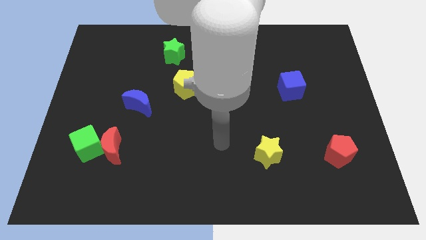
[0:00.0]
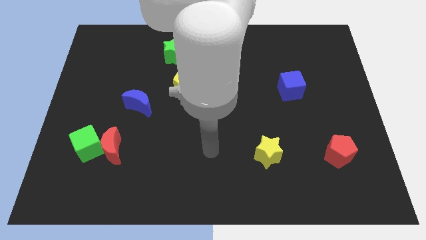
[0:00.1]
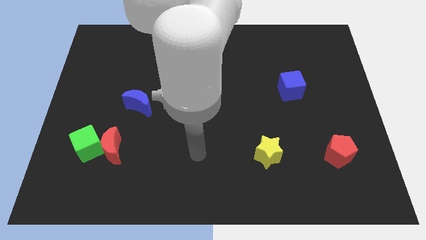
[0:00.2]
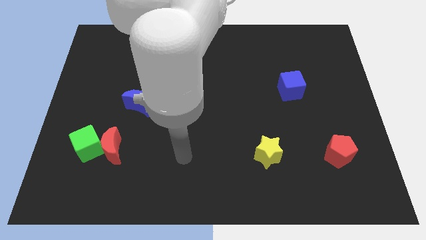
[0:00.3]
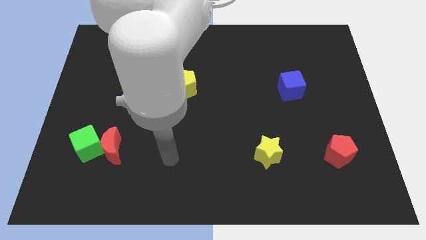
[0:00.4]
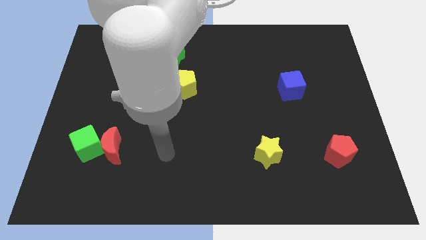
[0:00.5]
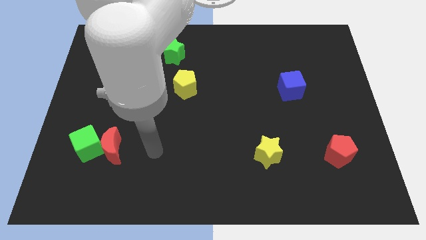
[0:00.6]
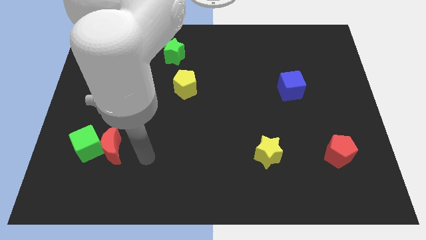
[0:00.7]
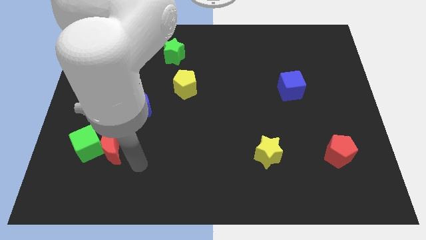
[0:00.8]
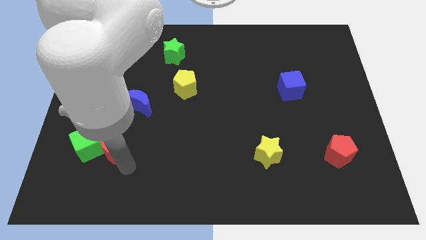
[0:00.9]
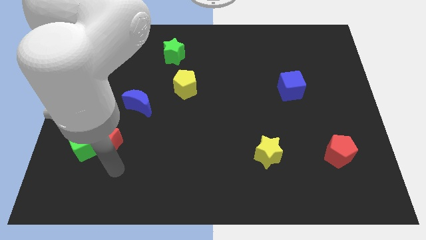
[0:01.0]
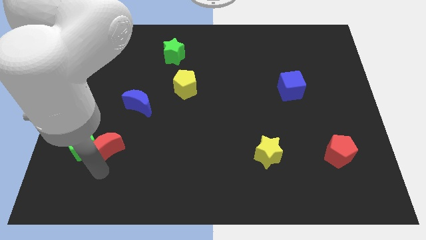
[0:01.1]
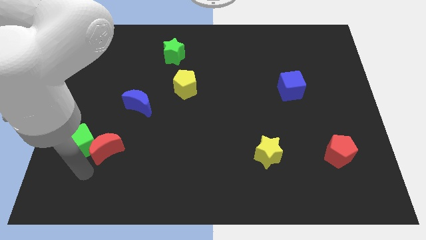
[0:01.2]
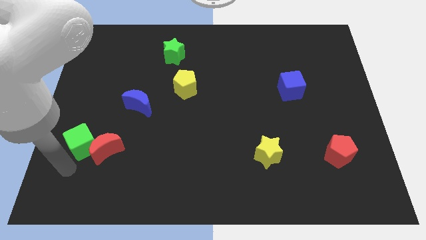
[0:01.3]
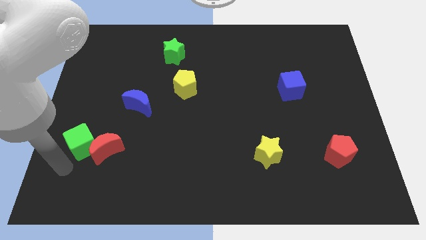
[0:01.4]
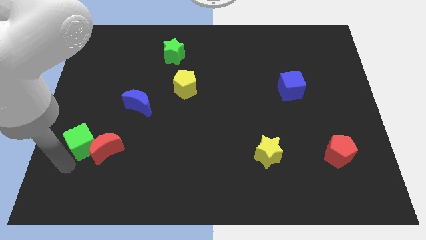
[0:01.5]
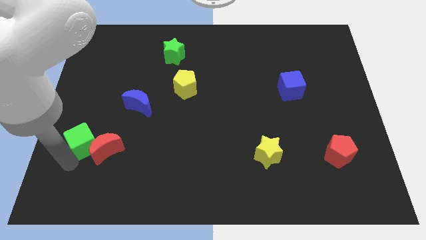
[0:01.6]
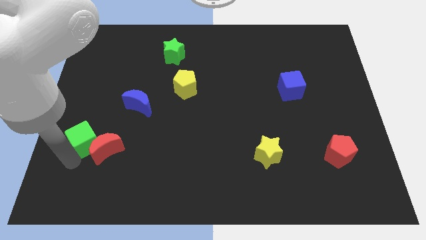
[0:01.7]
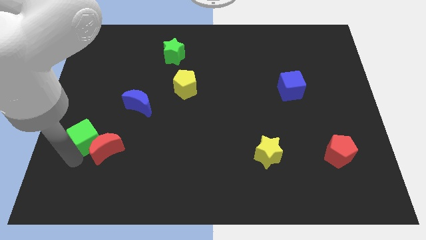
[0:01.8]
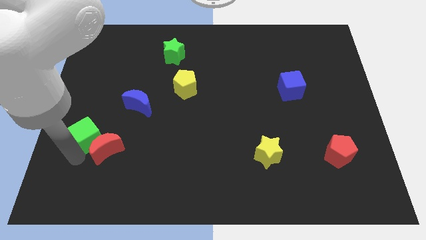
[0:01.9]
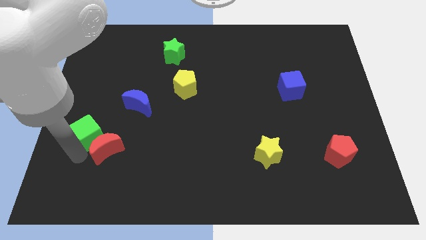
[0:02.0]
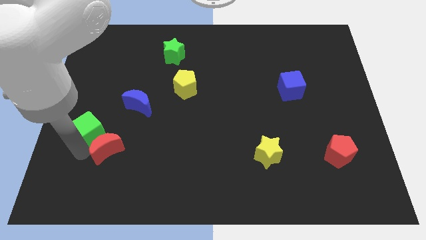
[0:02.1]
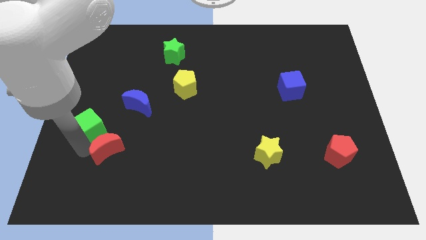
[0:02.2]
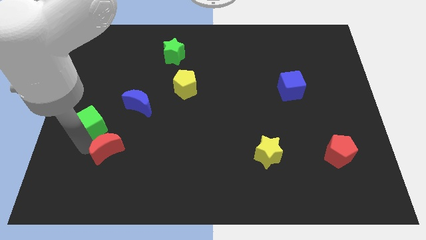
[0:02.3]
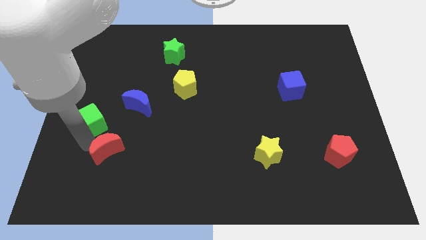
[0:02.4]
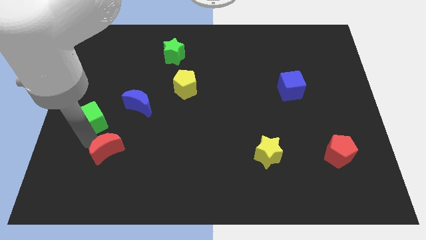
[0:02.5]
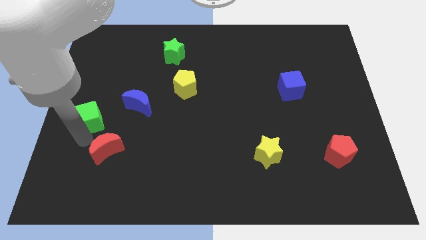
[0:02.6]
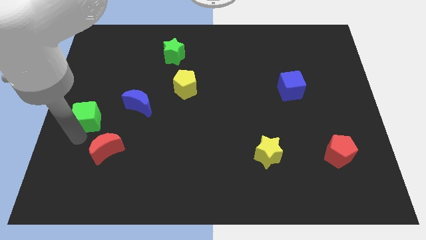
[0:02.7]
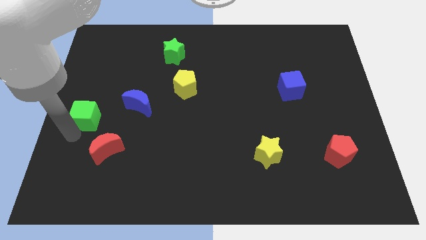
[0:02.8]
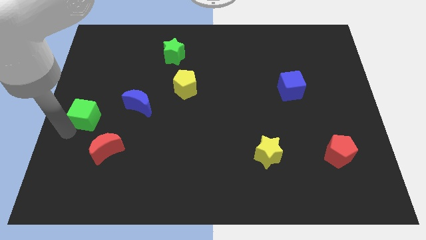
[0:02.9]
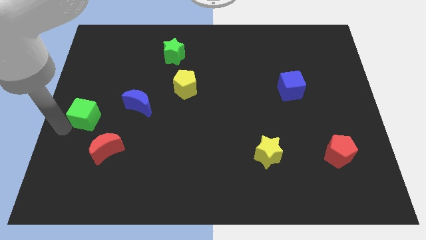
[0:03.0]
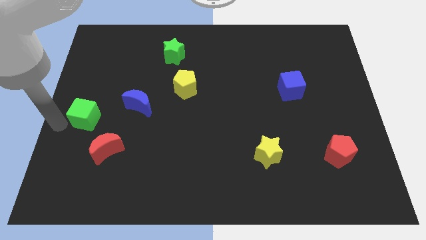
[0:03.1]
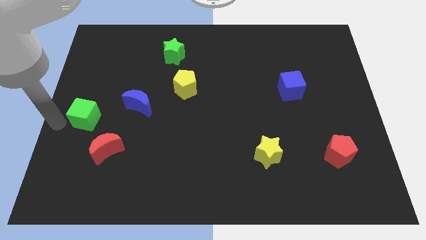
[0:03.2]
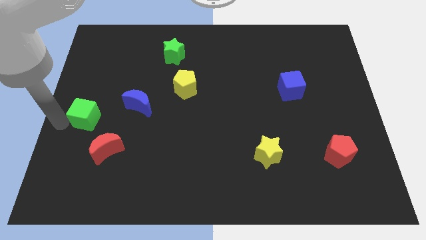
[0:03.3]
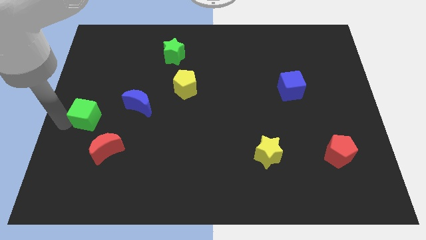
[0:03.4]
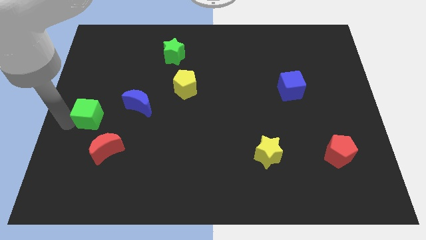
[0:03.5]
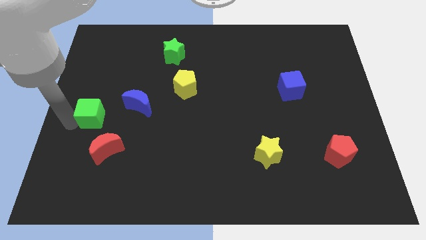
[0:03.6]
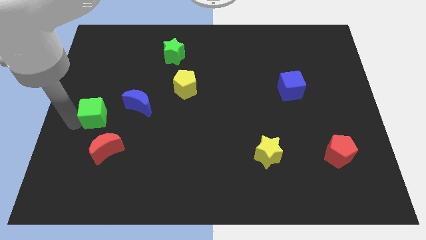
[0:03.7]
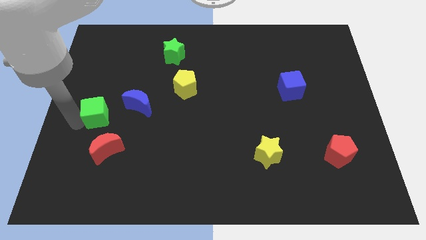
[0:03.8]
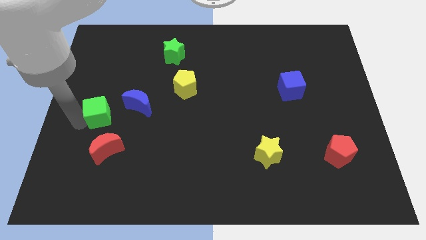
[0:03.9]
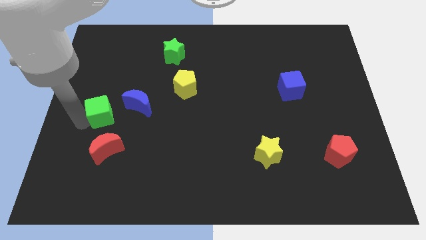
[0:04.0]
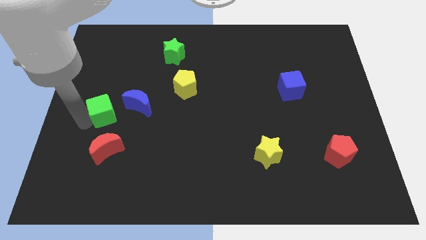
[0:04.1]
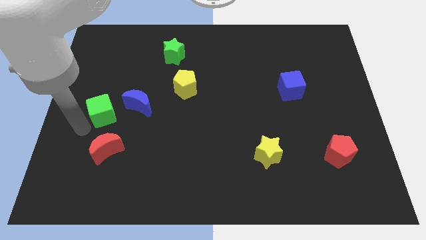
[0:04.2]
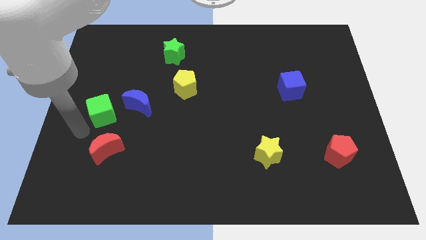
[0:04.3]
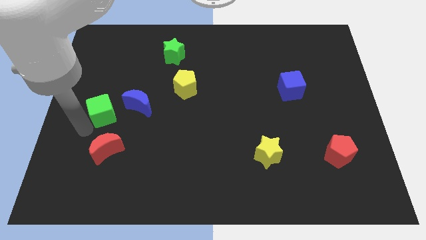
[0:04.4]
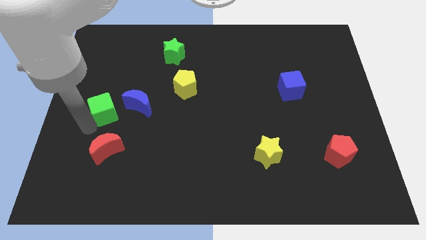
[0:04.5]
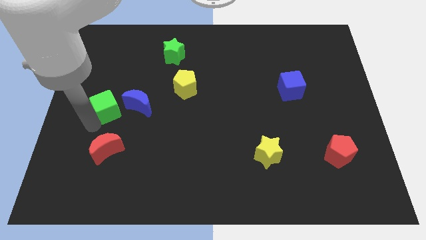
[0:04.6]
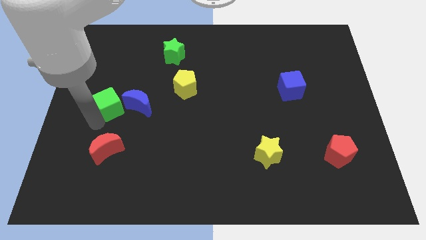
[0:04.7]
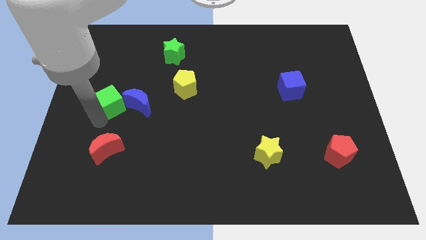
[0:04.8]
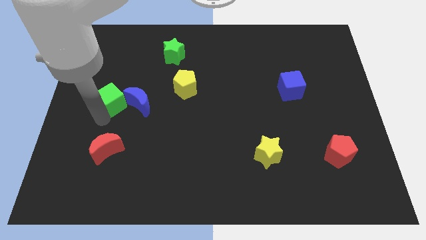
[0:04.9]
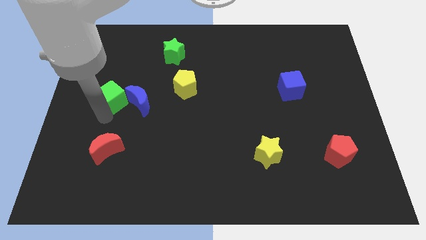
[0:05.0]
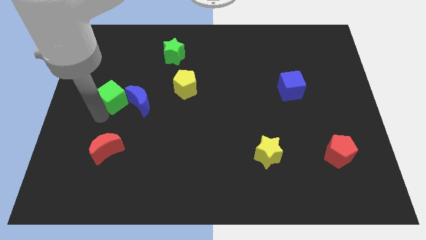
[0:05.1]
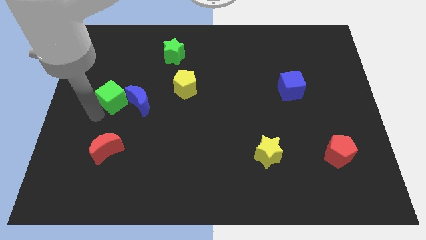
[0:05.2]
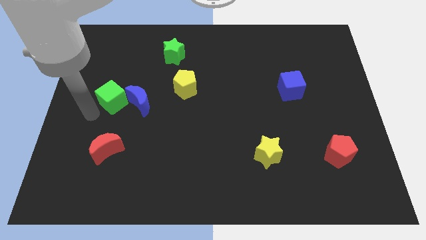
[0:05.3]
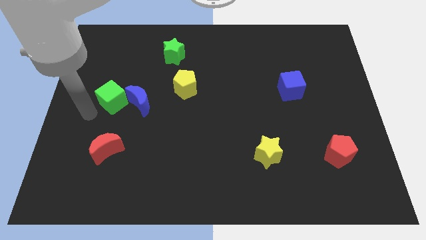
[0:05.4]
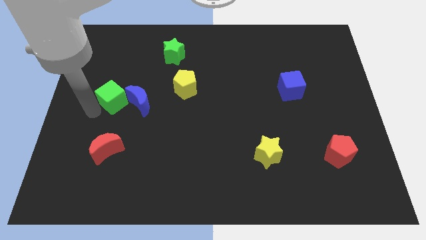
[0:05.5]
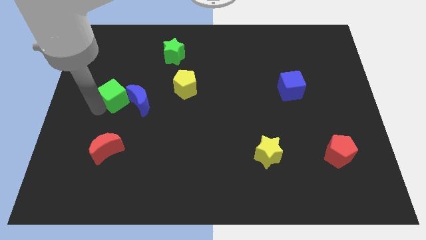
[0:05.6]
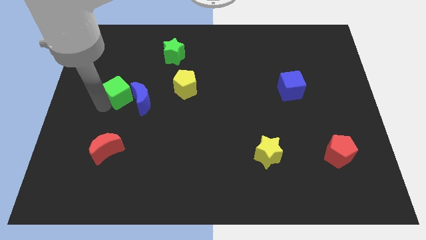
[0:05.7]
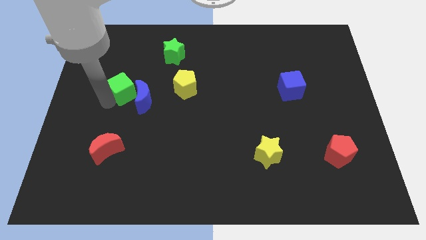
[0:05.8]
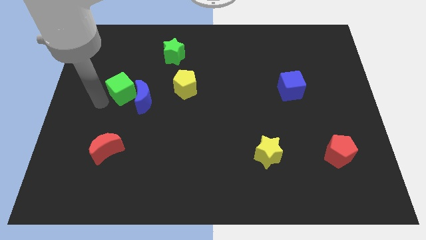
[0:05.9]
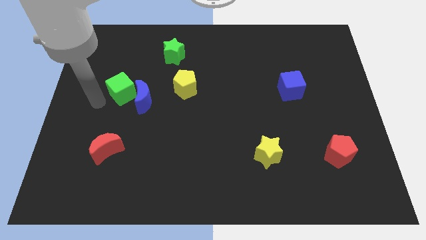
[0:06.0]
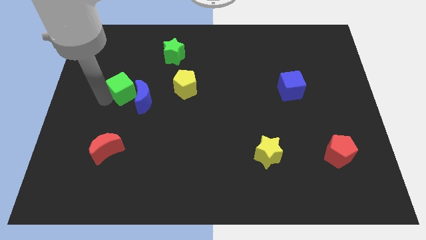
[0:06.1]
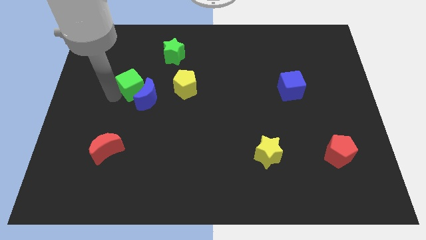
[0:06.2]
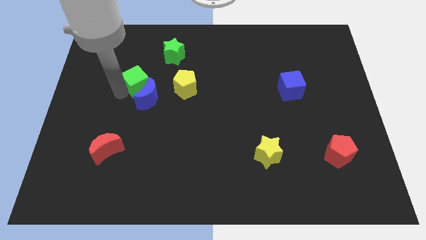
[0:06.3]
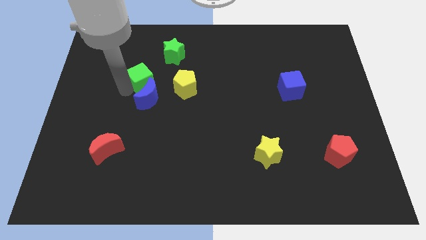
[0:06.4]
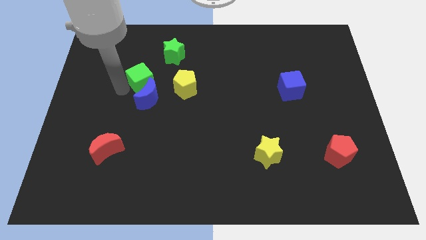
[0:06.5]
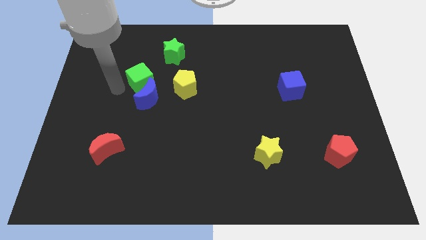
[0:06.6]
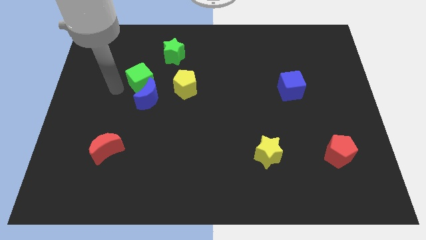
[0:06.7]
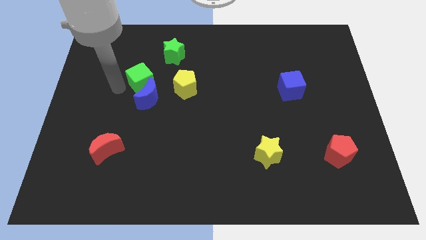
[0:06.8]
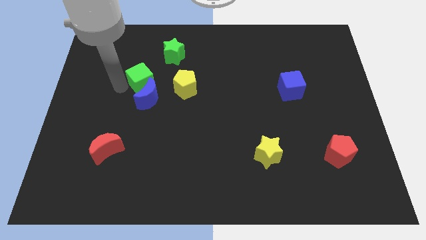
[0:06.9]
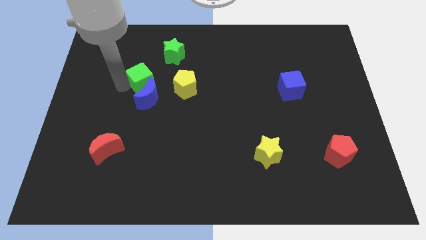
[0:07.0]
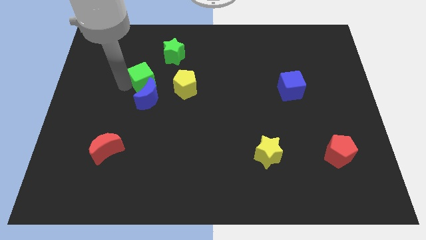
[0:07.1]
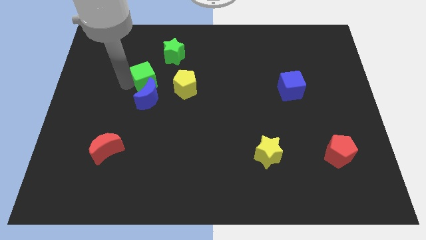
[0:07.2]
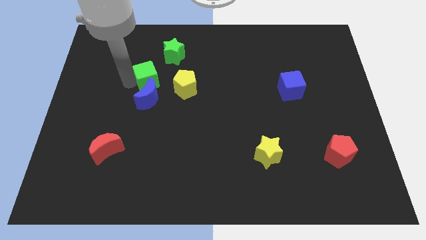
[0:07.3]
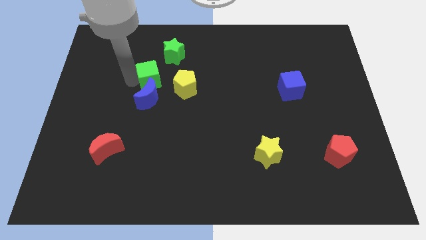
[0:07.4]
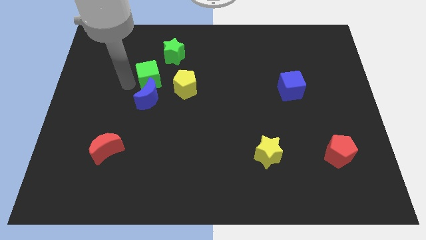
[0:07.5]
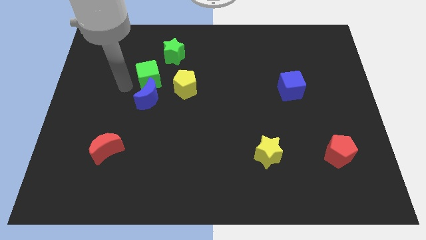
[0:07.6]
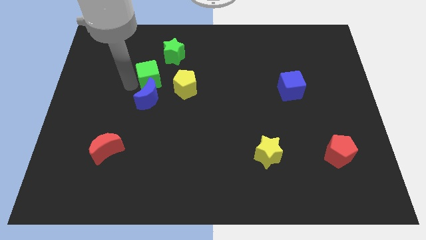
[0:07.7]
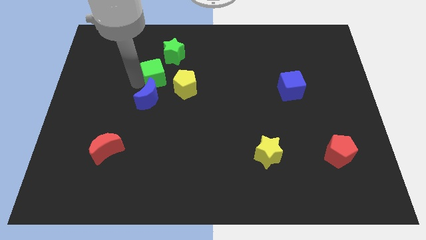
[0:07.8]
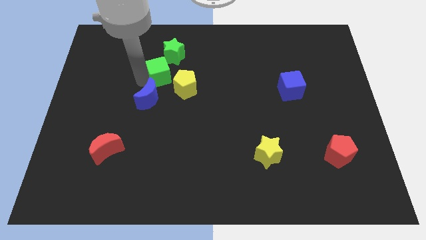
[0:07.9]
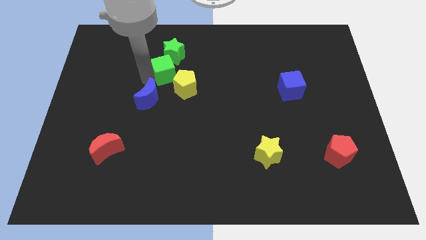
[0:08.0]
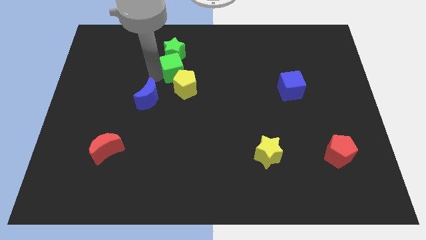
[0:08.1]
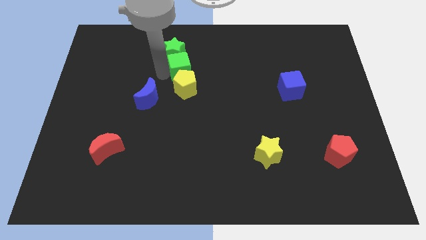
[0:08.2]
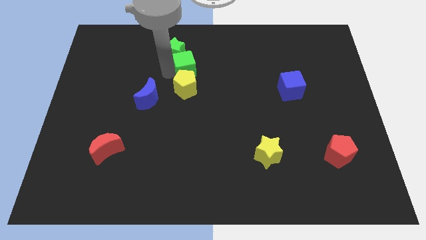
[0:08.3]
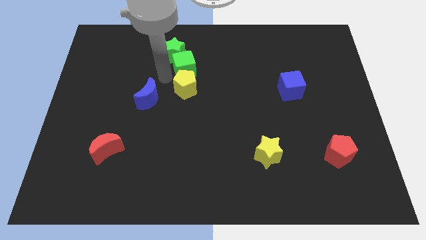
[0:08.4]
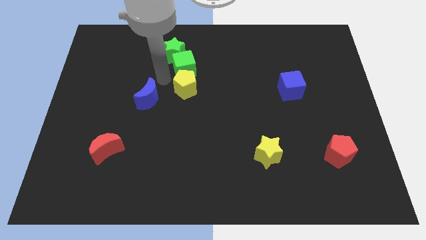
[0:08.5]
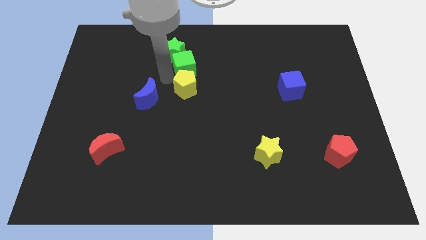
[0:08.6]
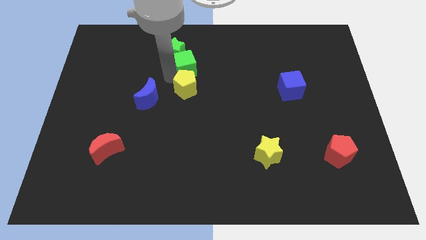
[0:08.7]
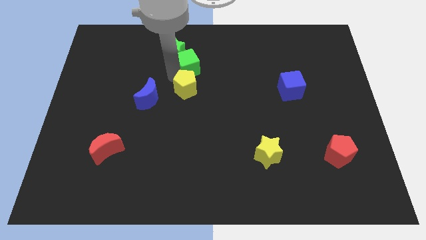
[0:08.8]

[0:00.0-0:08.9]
put the green cube right of the green star
